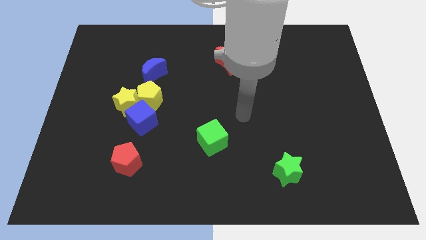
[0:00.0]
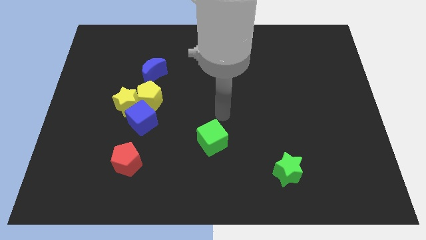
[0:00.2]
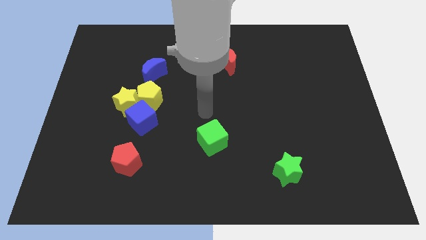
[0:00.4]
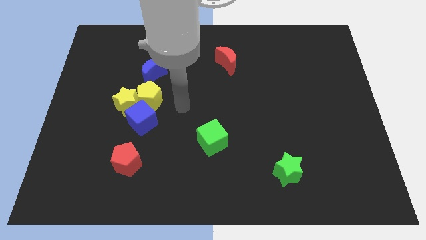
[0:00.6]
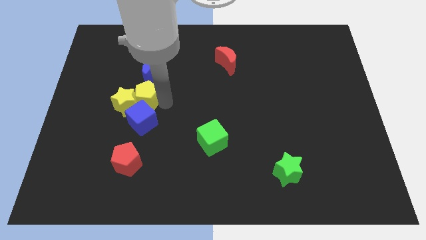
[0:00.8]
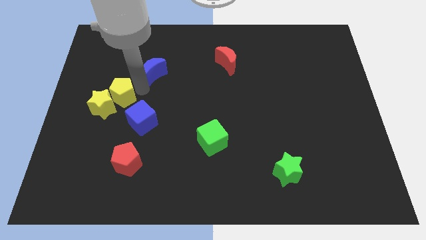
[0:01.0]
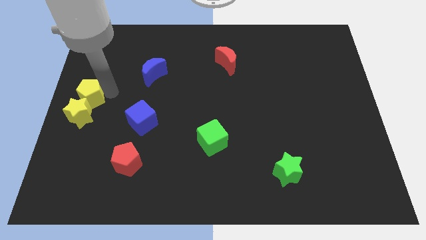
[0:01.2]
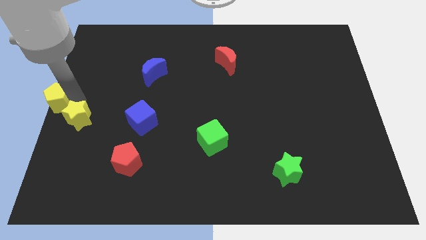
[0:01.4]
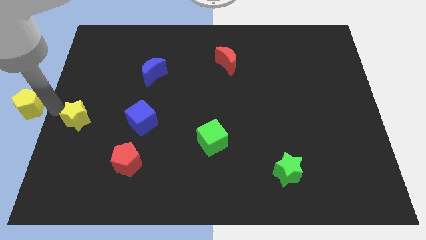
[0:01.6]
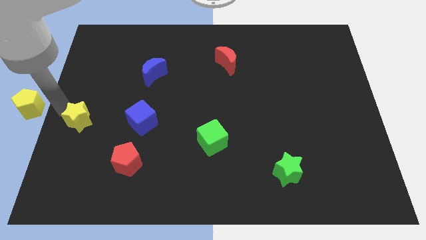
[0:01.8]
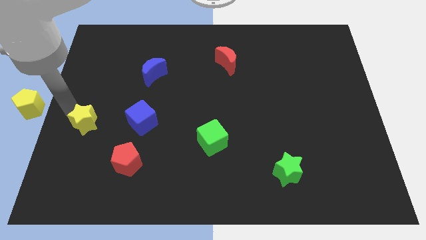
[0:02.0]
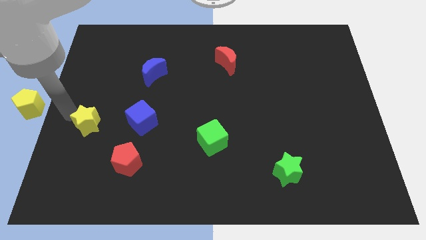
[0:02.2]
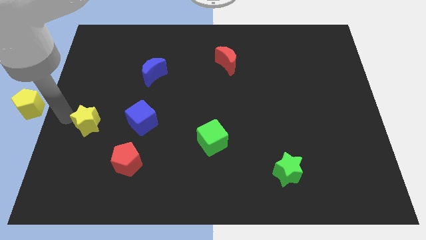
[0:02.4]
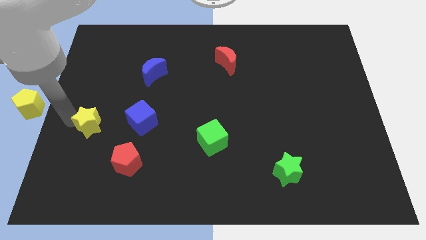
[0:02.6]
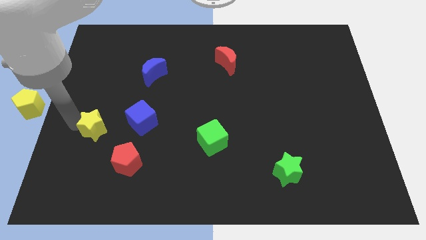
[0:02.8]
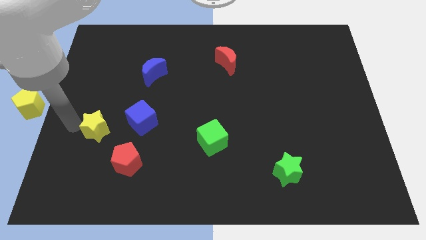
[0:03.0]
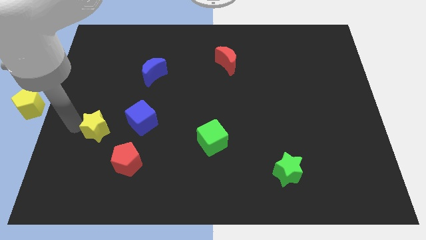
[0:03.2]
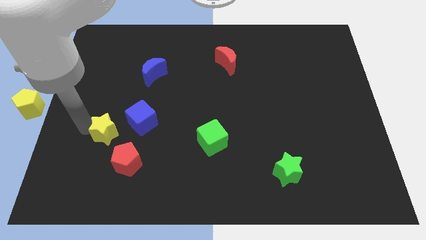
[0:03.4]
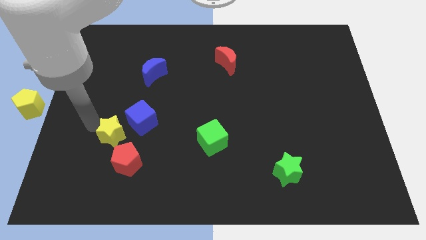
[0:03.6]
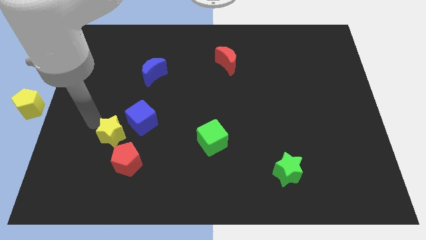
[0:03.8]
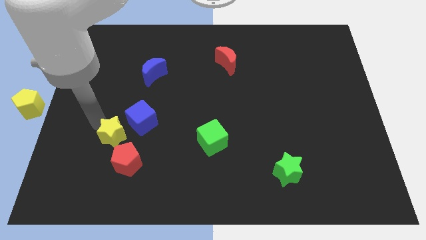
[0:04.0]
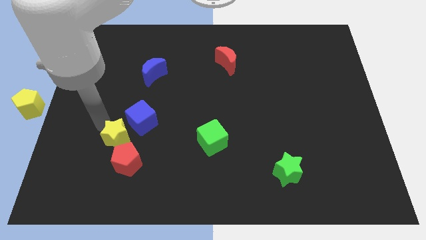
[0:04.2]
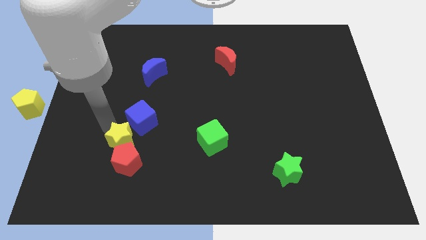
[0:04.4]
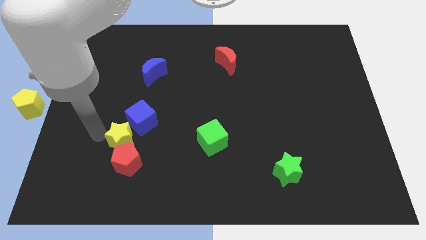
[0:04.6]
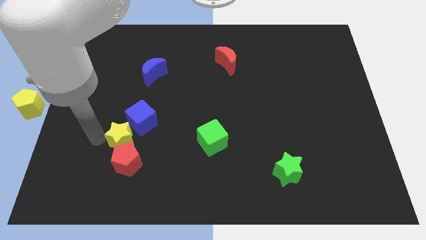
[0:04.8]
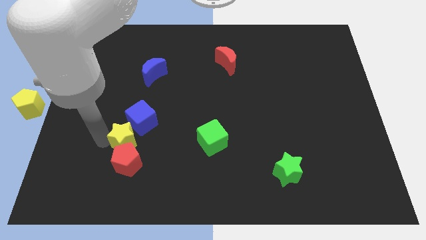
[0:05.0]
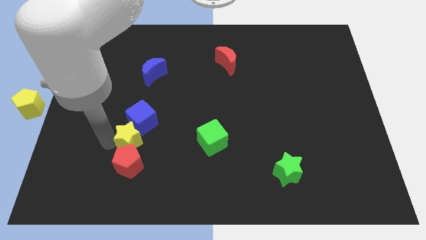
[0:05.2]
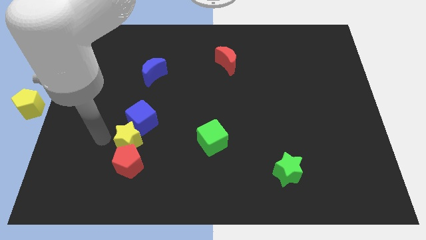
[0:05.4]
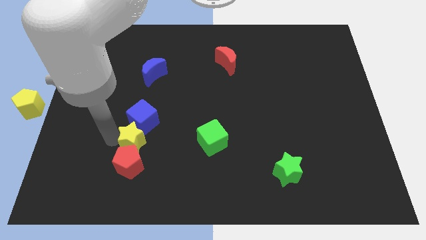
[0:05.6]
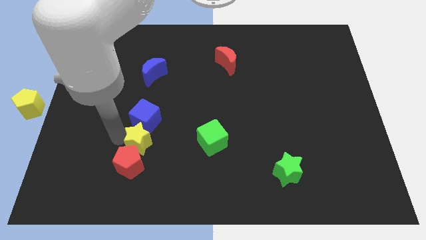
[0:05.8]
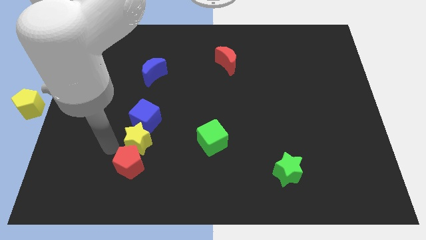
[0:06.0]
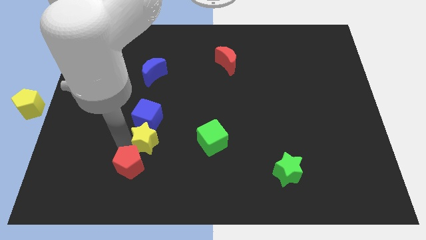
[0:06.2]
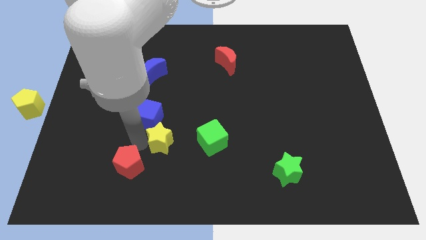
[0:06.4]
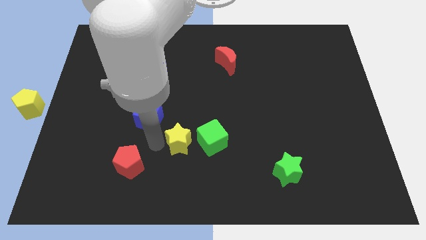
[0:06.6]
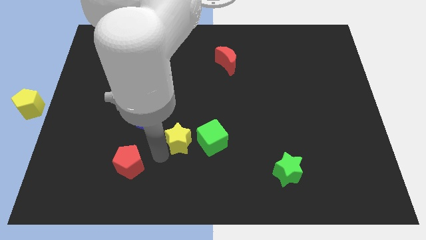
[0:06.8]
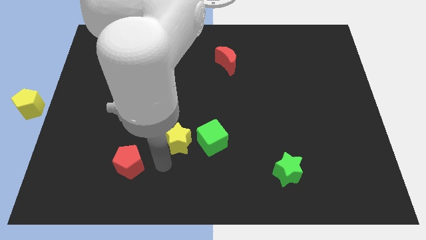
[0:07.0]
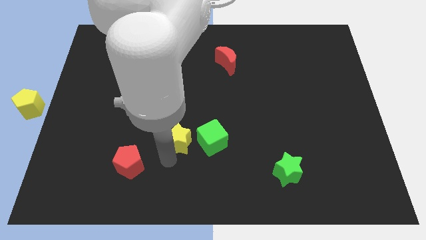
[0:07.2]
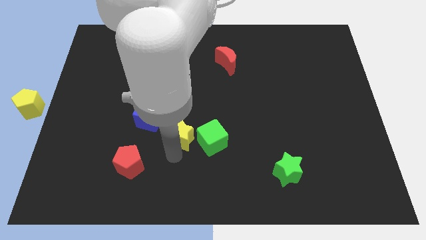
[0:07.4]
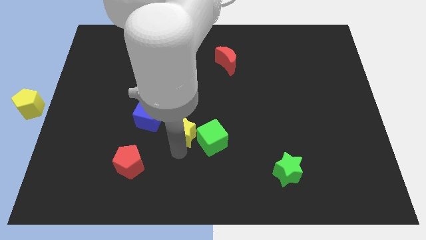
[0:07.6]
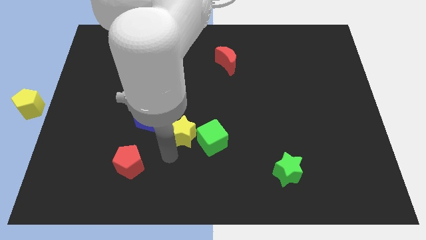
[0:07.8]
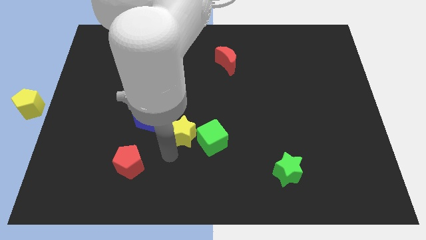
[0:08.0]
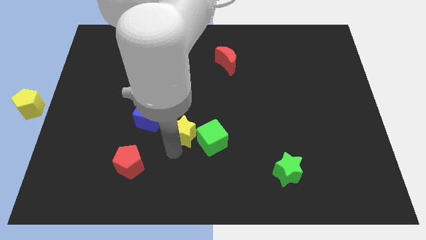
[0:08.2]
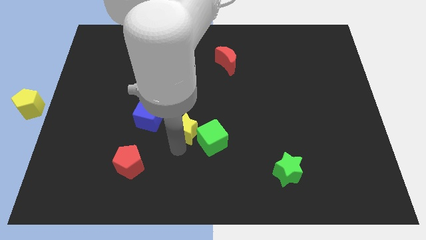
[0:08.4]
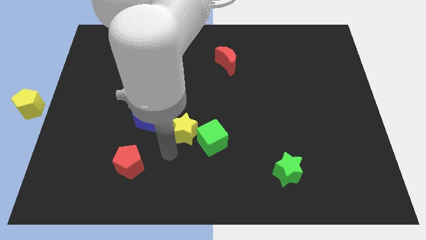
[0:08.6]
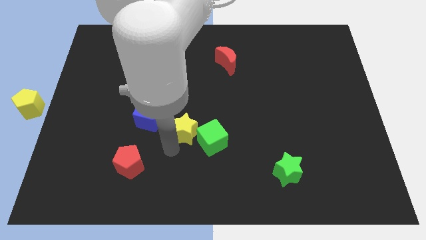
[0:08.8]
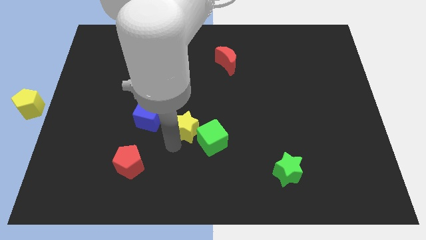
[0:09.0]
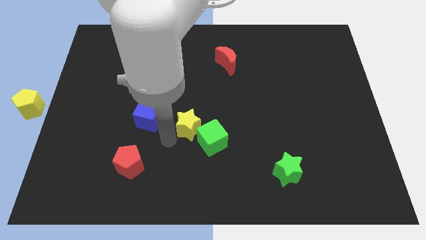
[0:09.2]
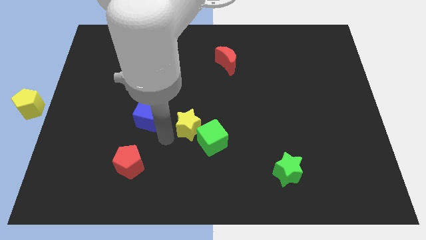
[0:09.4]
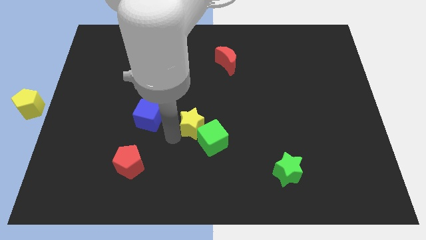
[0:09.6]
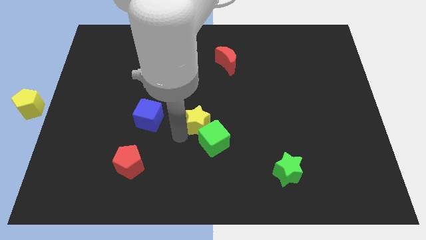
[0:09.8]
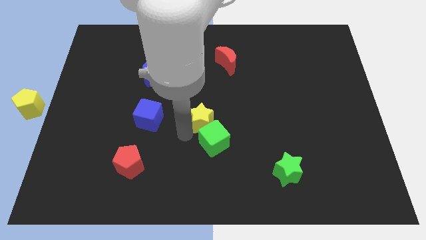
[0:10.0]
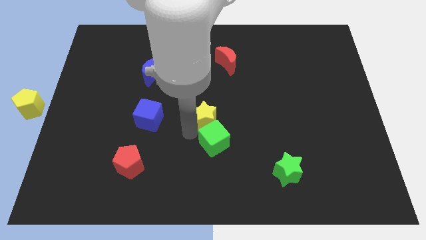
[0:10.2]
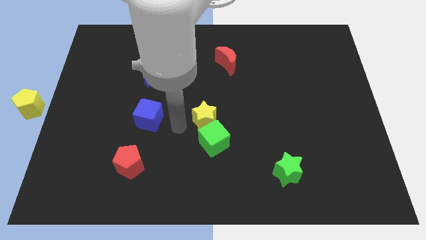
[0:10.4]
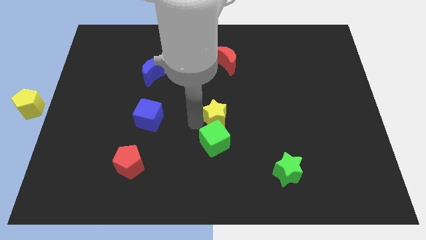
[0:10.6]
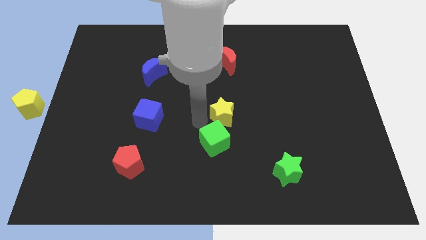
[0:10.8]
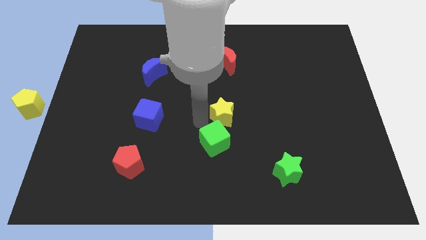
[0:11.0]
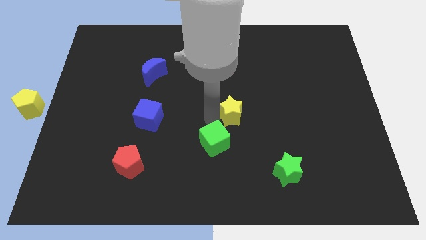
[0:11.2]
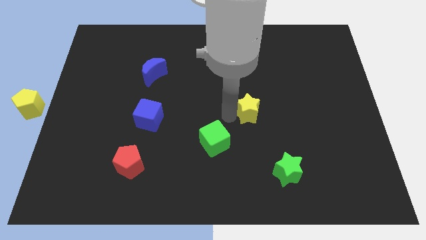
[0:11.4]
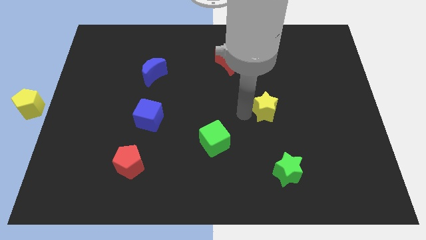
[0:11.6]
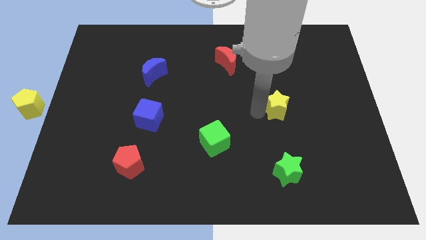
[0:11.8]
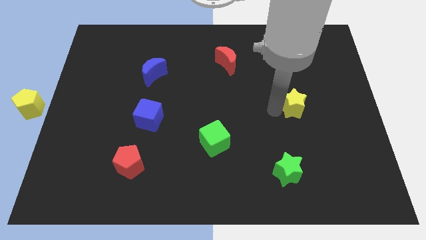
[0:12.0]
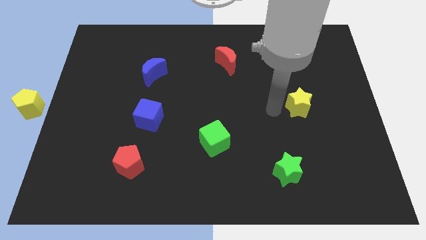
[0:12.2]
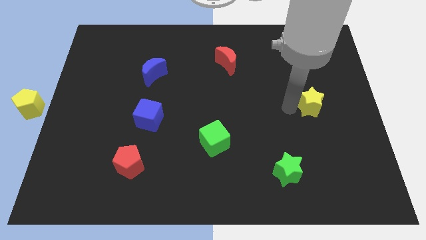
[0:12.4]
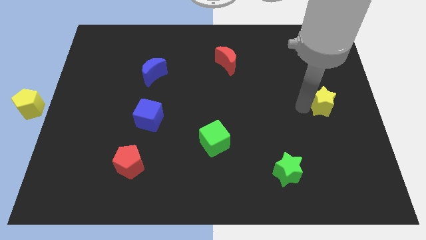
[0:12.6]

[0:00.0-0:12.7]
push the yellow star to the right side of the board

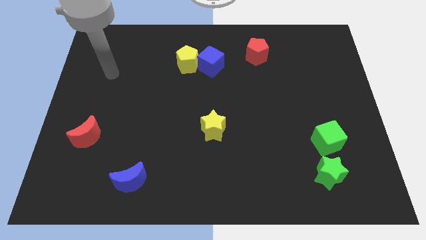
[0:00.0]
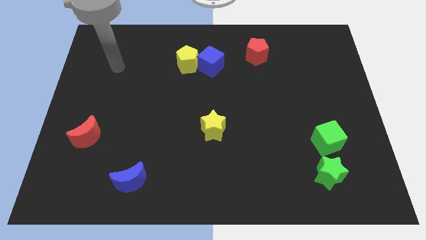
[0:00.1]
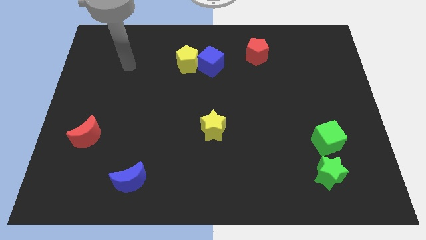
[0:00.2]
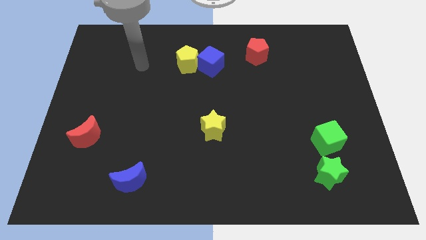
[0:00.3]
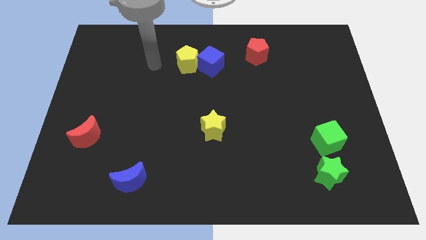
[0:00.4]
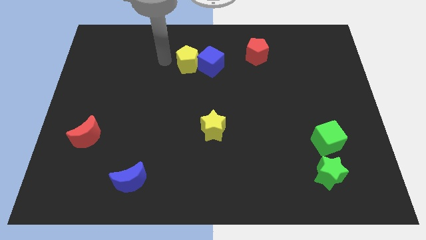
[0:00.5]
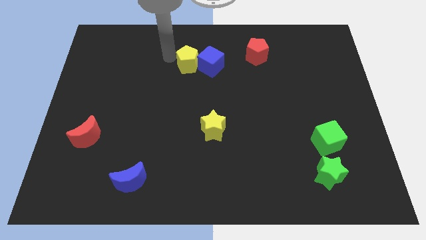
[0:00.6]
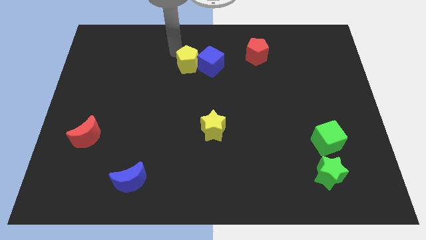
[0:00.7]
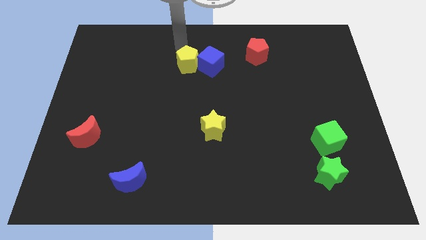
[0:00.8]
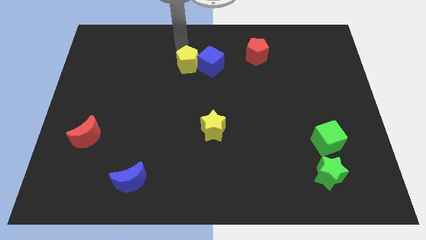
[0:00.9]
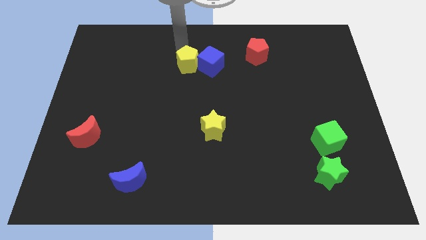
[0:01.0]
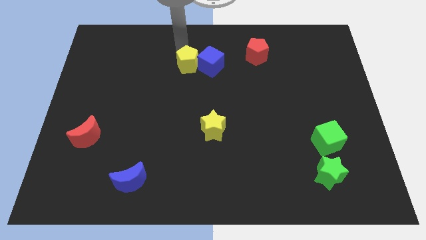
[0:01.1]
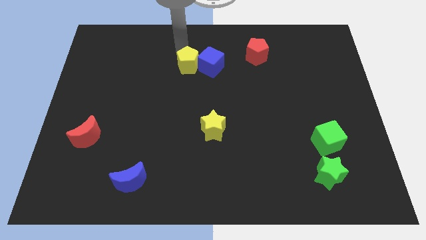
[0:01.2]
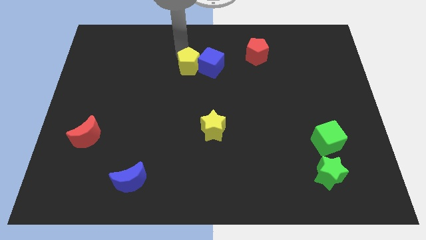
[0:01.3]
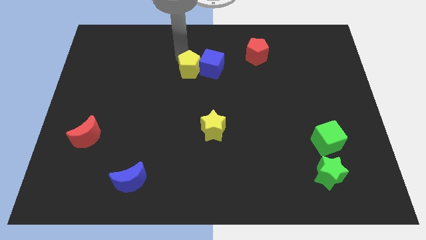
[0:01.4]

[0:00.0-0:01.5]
slide the yellow pentagon to the middle of the board
